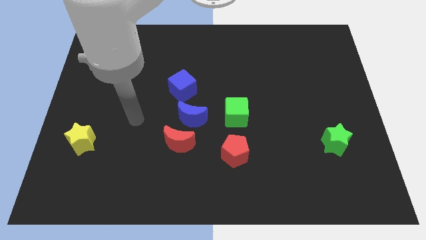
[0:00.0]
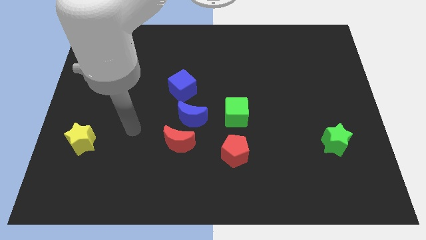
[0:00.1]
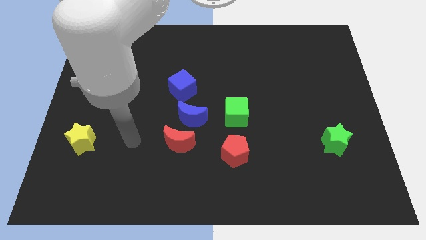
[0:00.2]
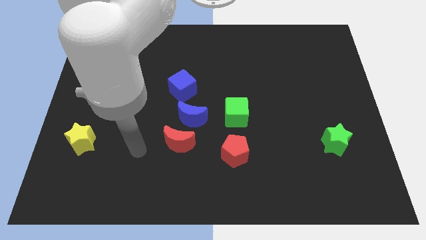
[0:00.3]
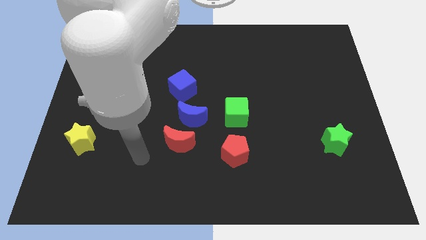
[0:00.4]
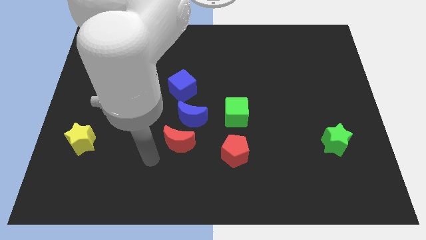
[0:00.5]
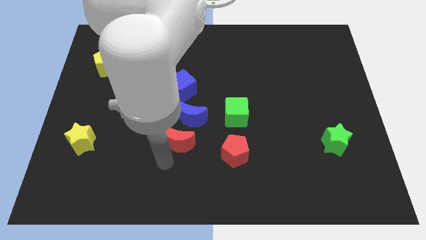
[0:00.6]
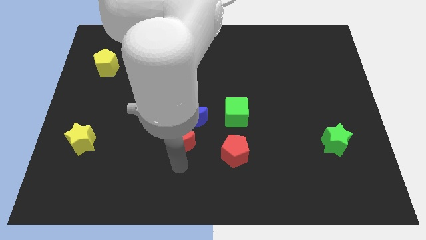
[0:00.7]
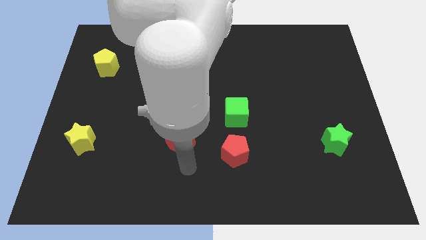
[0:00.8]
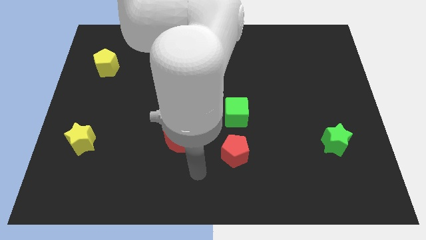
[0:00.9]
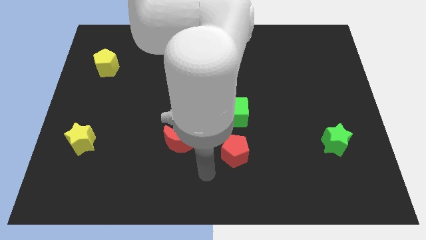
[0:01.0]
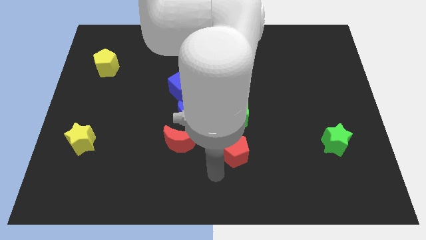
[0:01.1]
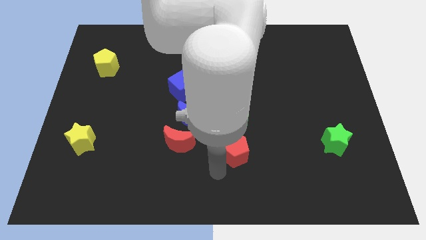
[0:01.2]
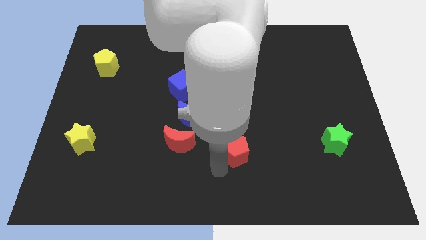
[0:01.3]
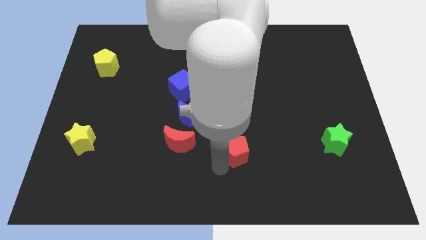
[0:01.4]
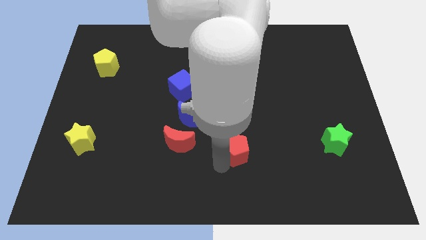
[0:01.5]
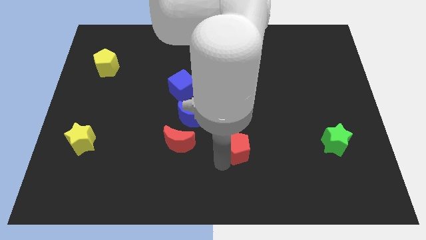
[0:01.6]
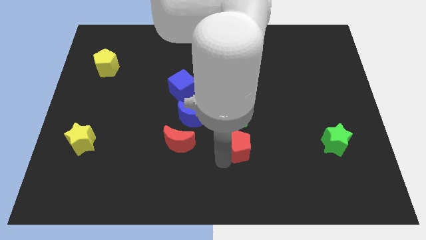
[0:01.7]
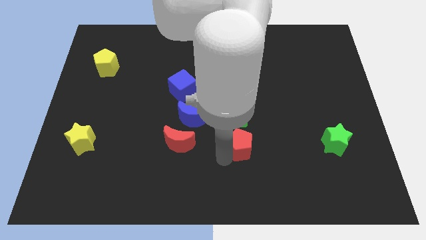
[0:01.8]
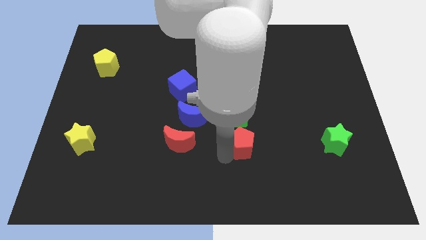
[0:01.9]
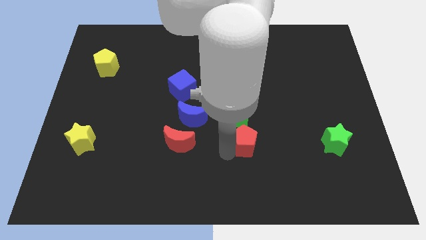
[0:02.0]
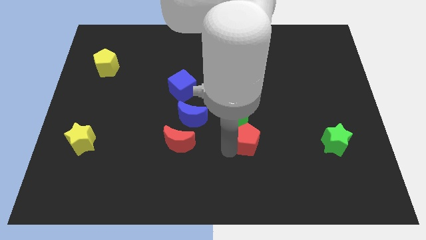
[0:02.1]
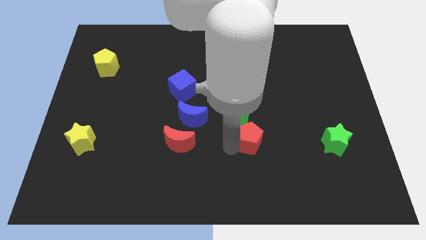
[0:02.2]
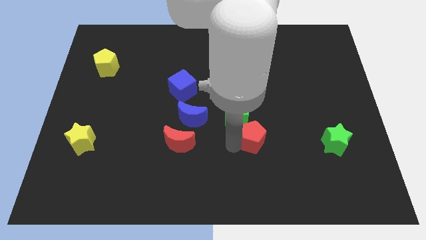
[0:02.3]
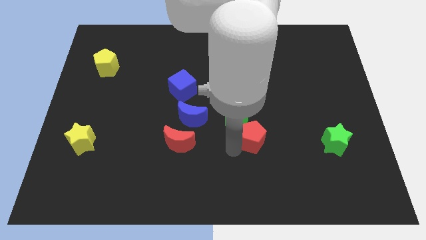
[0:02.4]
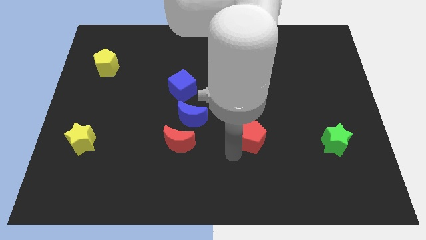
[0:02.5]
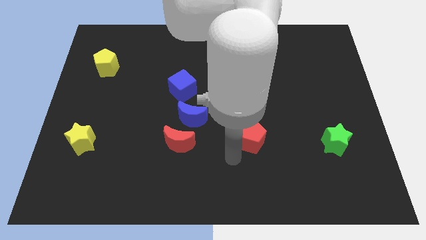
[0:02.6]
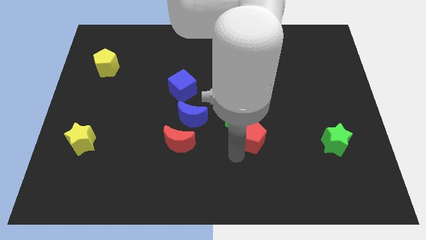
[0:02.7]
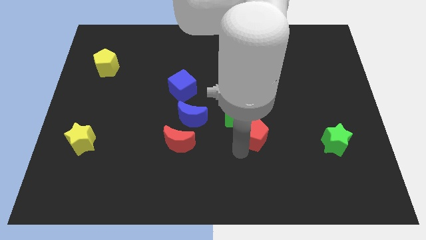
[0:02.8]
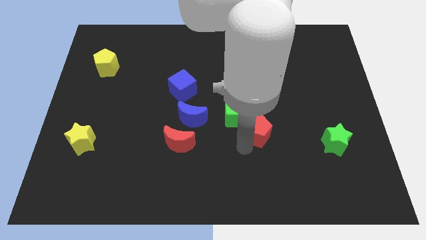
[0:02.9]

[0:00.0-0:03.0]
slide the red pentagon diagonally up and right a bit

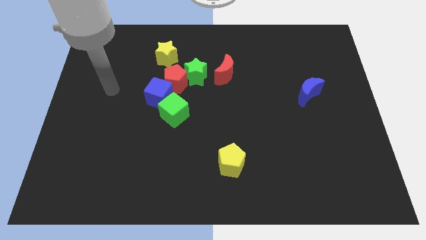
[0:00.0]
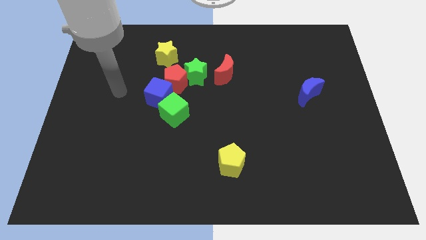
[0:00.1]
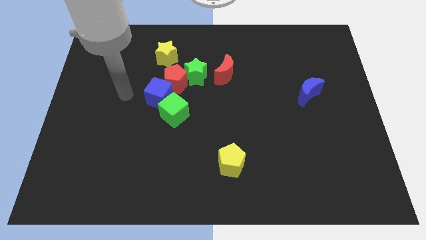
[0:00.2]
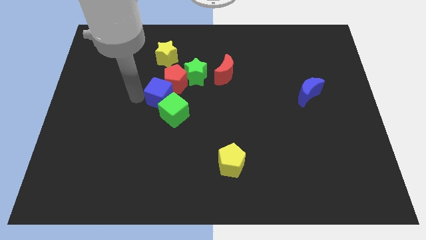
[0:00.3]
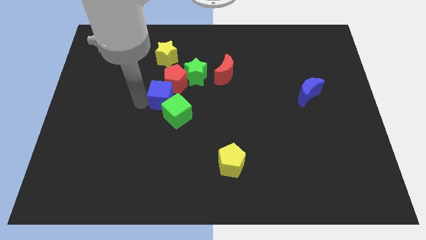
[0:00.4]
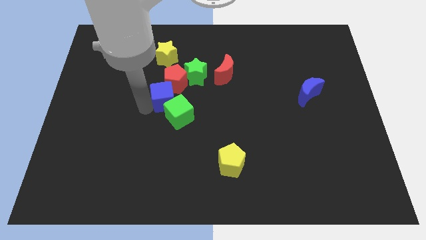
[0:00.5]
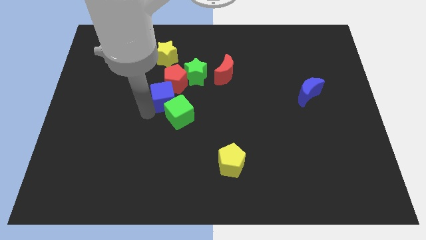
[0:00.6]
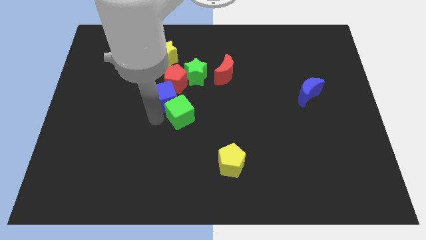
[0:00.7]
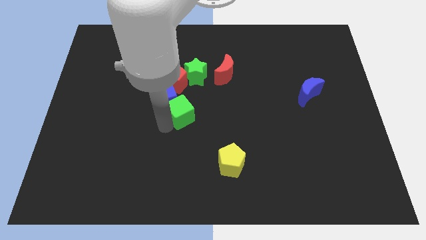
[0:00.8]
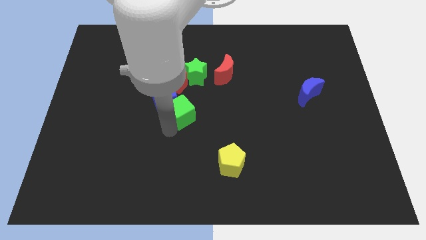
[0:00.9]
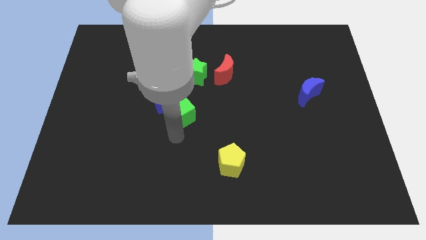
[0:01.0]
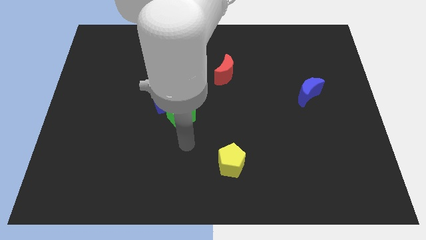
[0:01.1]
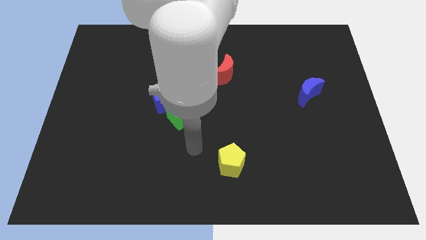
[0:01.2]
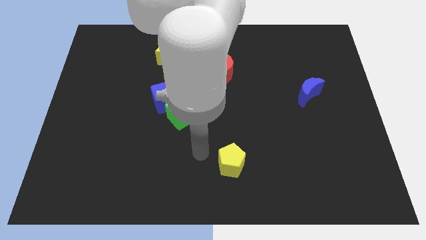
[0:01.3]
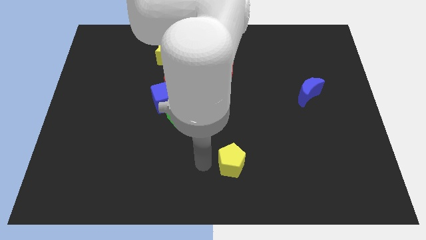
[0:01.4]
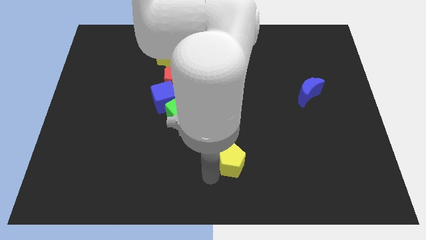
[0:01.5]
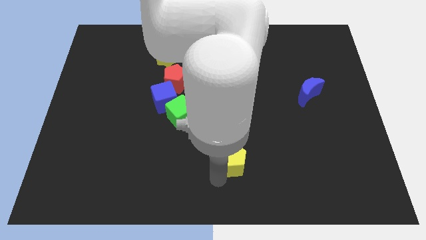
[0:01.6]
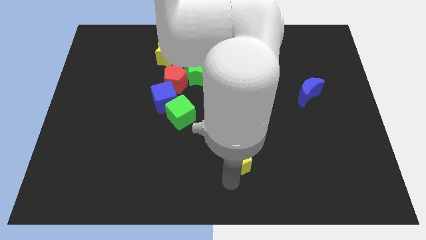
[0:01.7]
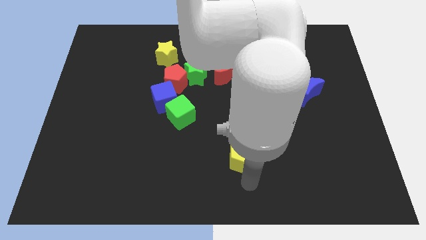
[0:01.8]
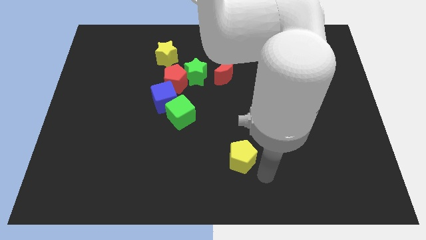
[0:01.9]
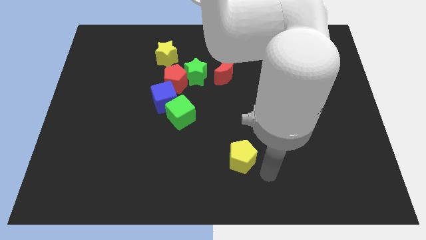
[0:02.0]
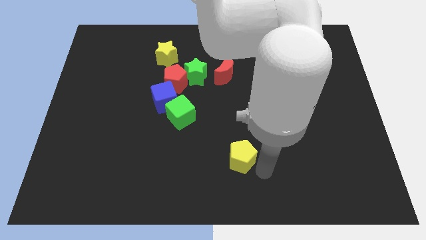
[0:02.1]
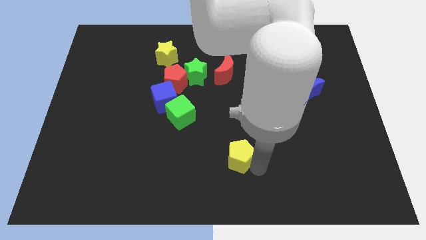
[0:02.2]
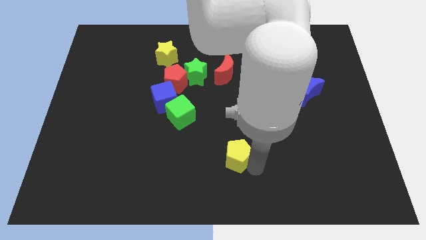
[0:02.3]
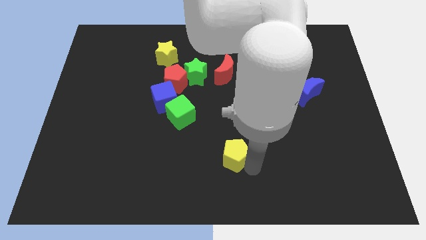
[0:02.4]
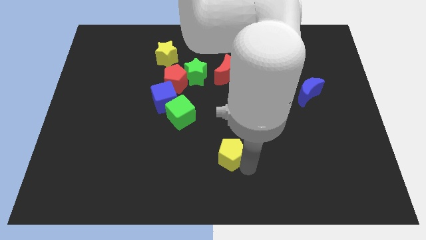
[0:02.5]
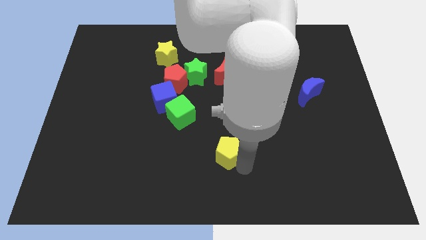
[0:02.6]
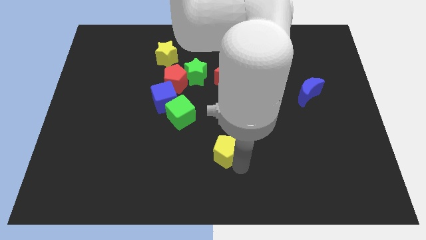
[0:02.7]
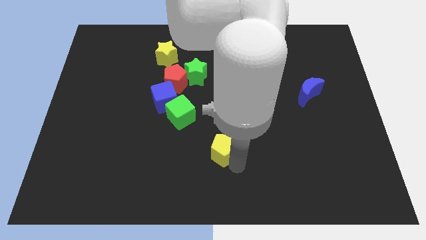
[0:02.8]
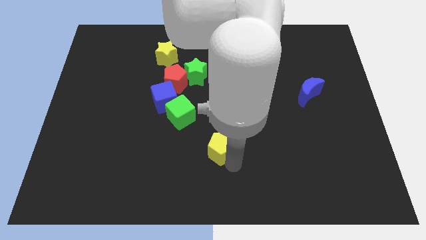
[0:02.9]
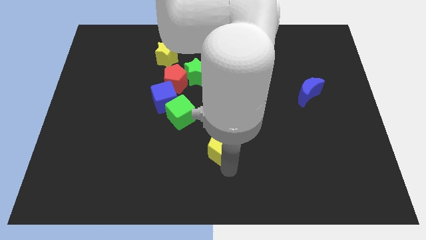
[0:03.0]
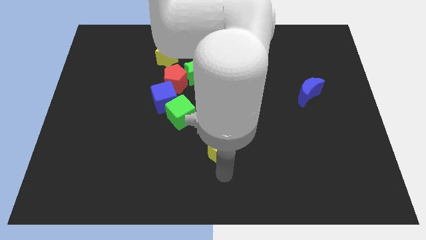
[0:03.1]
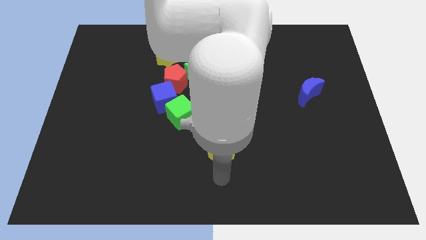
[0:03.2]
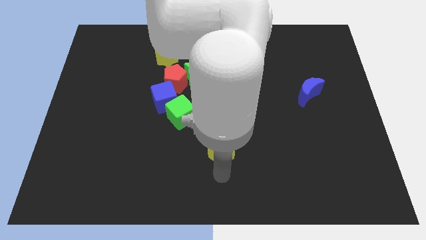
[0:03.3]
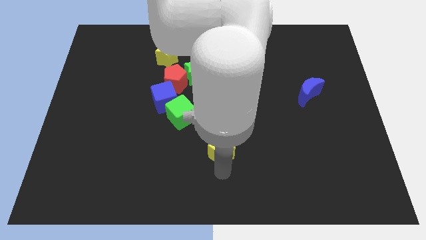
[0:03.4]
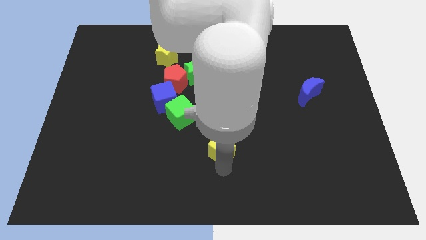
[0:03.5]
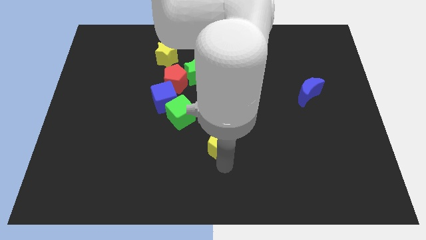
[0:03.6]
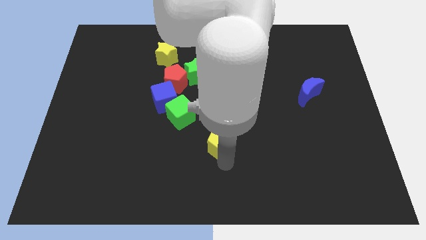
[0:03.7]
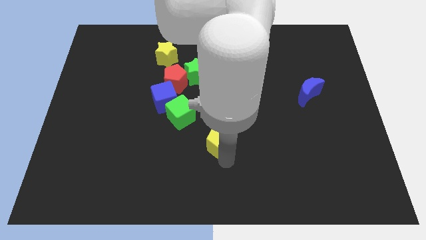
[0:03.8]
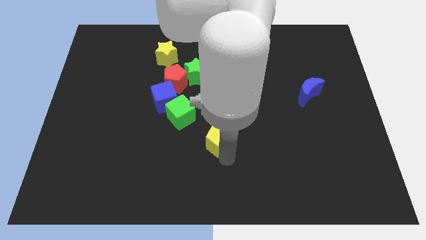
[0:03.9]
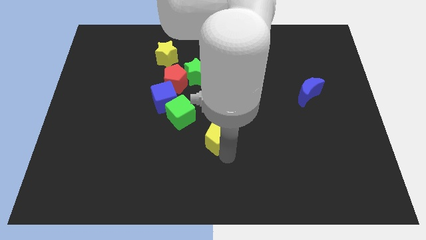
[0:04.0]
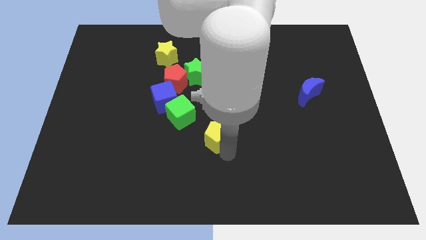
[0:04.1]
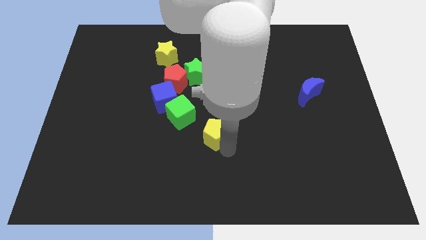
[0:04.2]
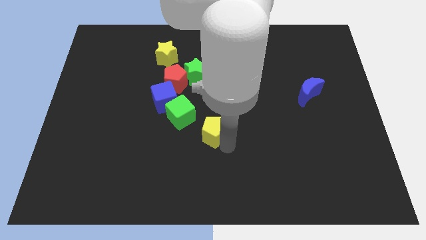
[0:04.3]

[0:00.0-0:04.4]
slightly slide the yellow pentagon up

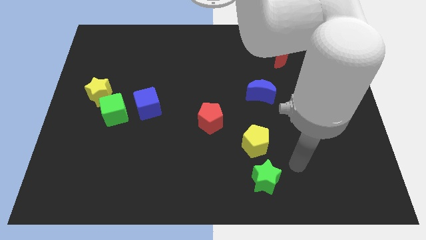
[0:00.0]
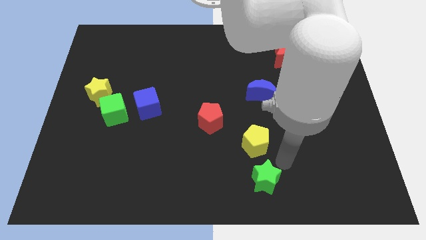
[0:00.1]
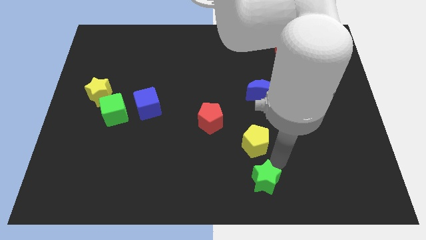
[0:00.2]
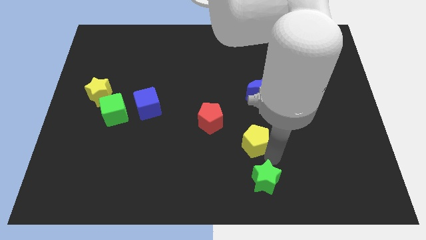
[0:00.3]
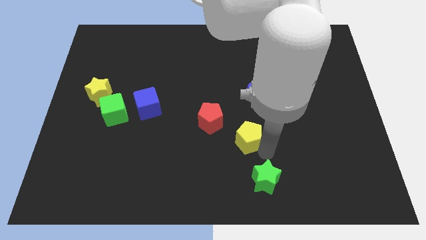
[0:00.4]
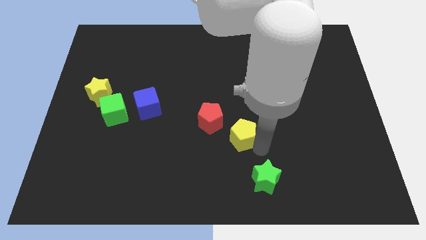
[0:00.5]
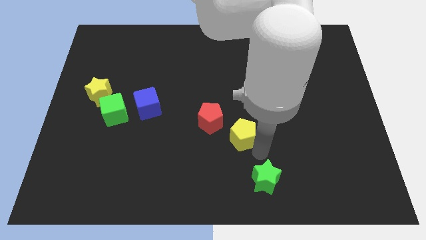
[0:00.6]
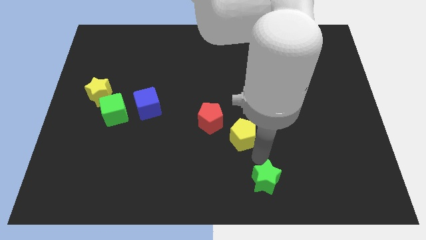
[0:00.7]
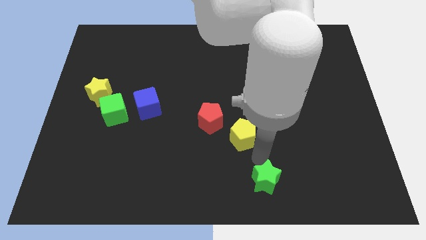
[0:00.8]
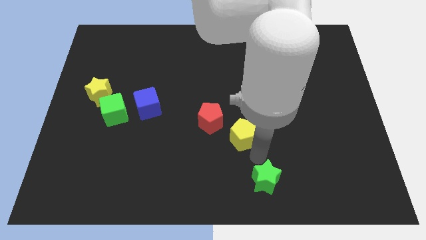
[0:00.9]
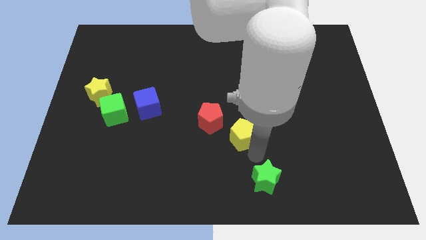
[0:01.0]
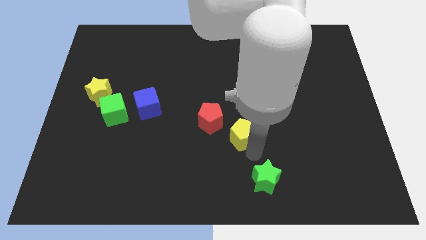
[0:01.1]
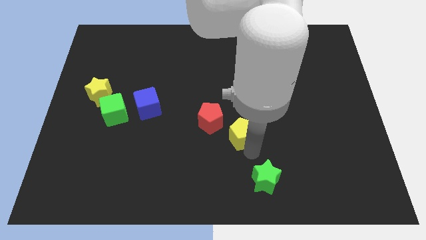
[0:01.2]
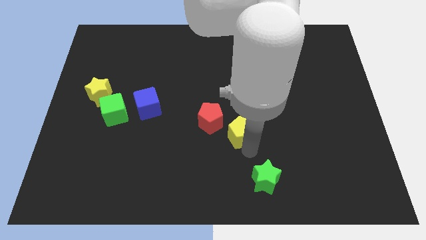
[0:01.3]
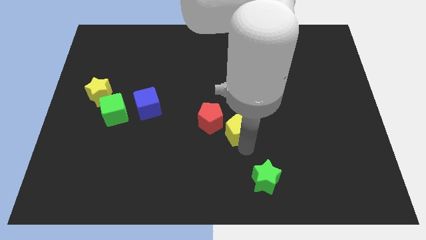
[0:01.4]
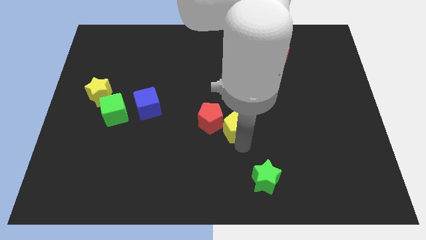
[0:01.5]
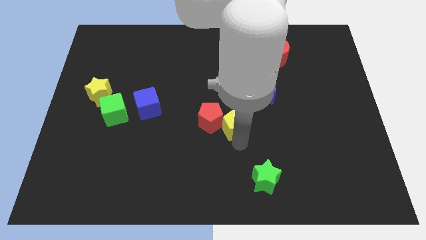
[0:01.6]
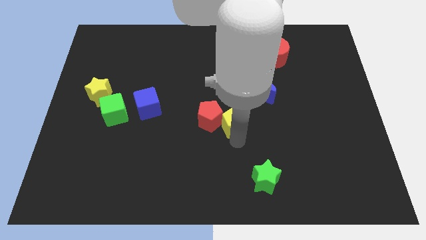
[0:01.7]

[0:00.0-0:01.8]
slightly slide the yellow pentagon up and left
